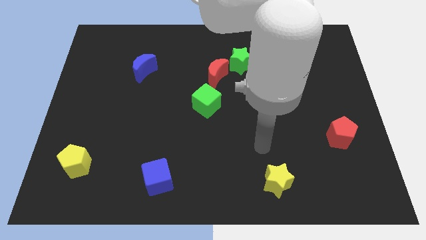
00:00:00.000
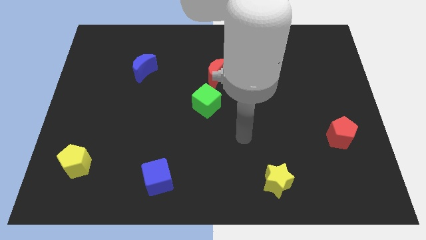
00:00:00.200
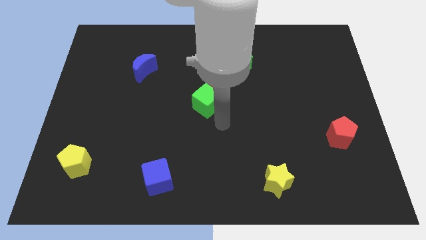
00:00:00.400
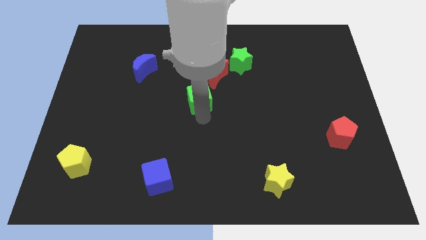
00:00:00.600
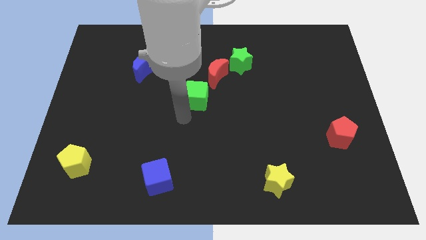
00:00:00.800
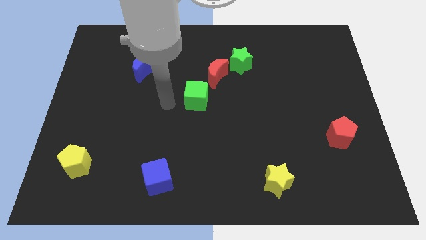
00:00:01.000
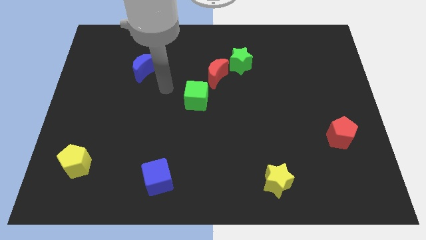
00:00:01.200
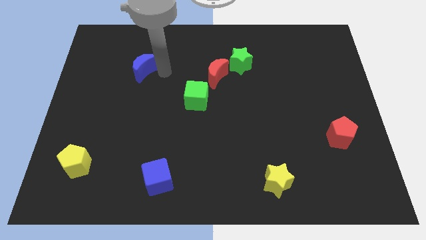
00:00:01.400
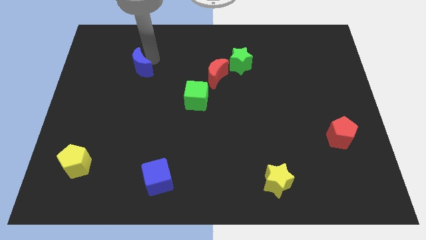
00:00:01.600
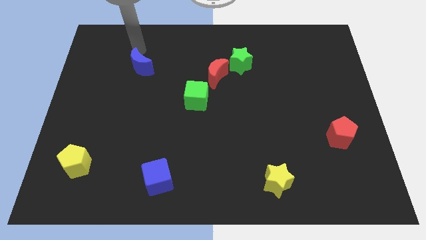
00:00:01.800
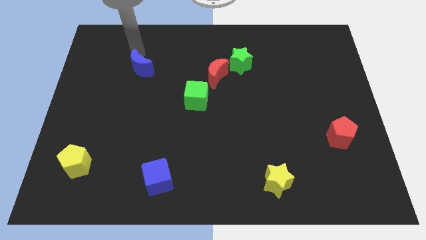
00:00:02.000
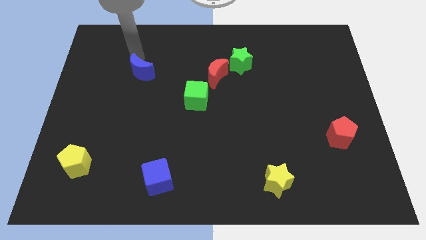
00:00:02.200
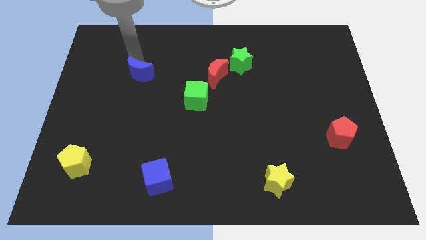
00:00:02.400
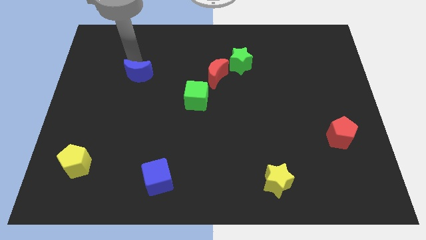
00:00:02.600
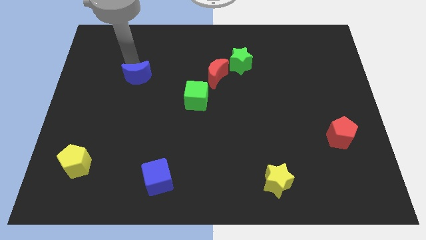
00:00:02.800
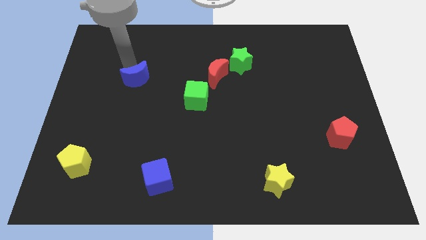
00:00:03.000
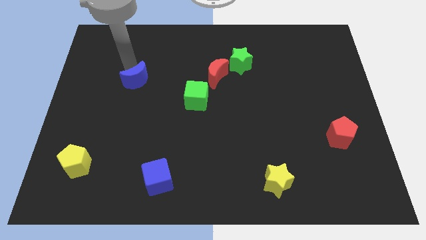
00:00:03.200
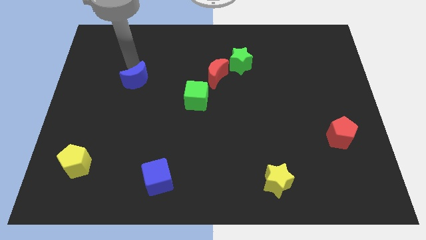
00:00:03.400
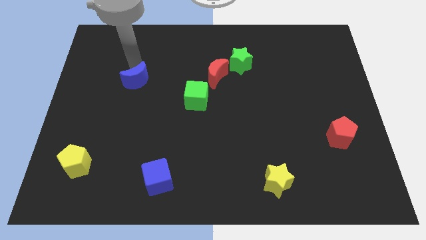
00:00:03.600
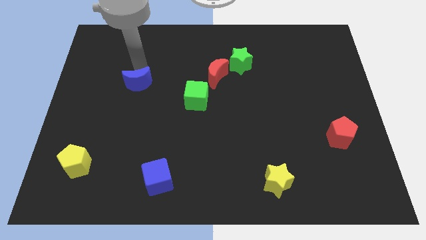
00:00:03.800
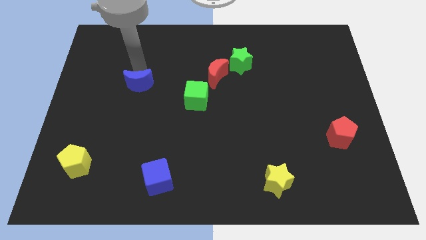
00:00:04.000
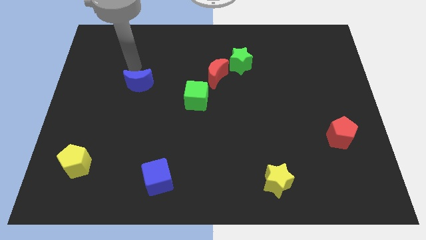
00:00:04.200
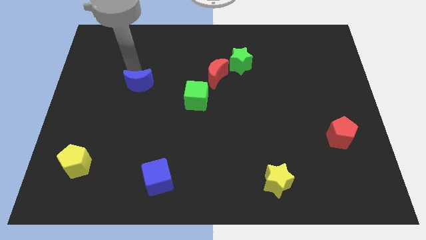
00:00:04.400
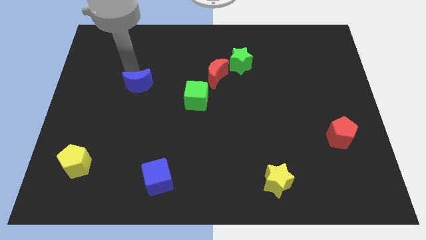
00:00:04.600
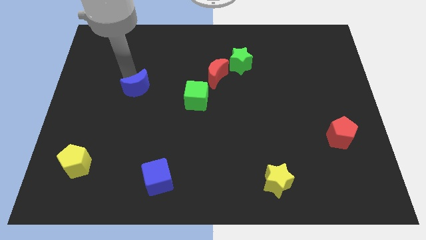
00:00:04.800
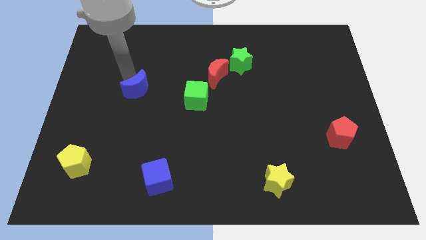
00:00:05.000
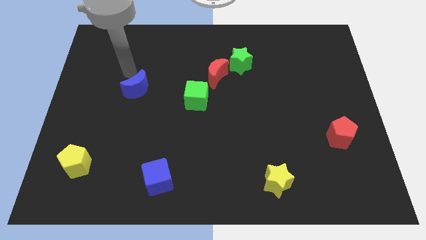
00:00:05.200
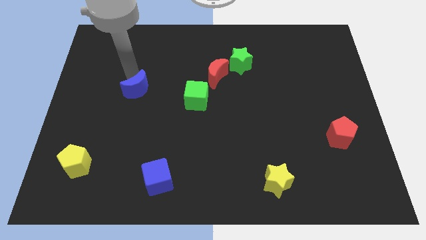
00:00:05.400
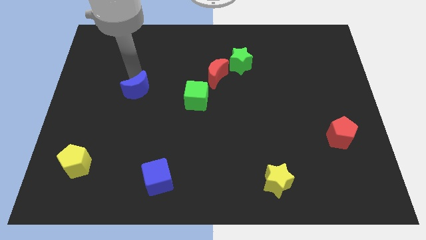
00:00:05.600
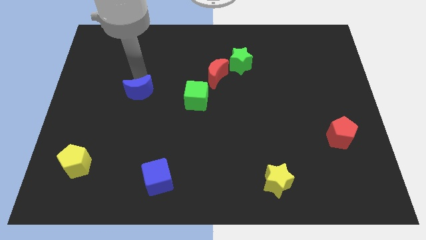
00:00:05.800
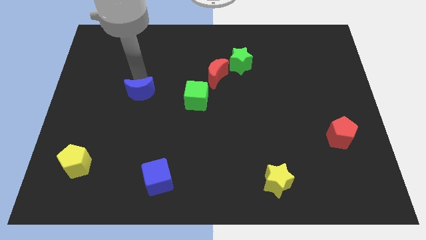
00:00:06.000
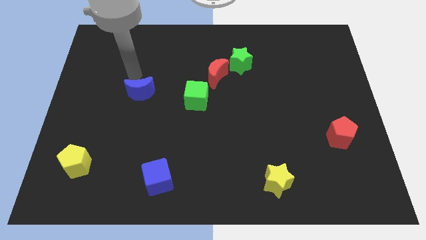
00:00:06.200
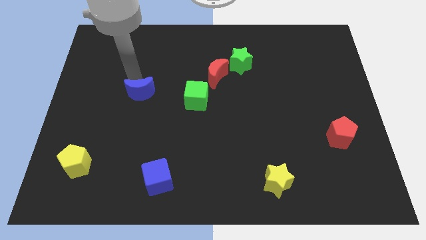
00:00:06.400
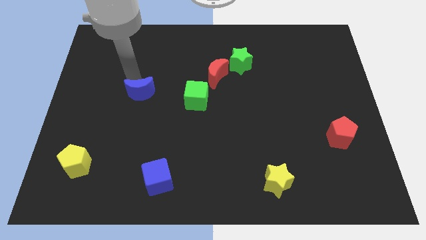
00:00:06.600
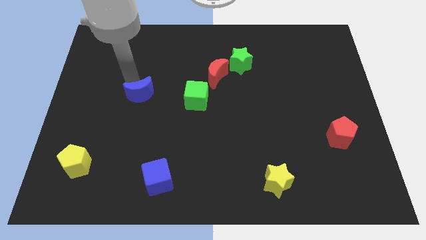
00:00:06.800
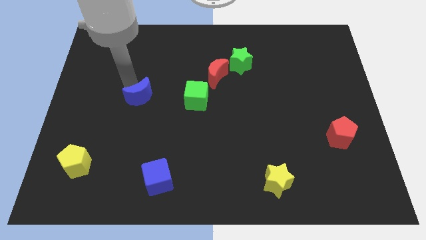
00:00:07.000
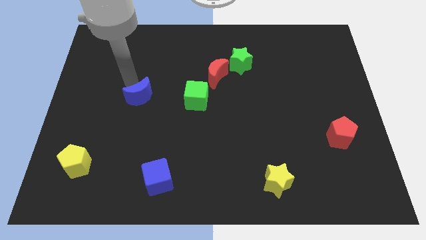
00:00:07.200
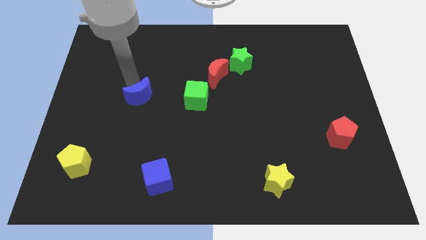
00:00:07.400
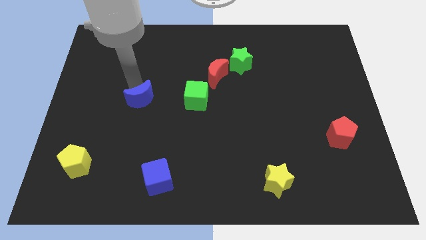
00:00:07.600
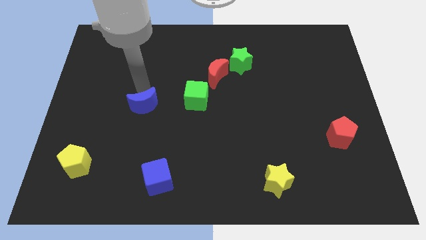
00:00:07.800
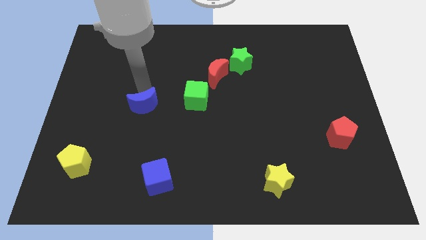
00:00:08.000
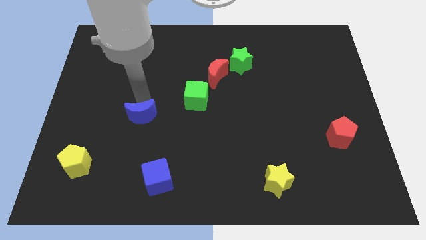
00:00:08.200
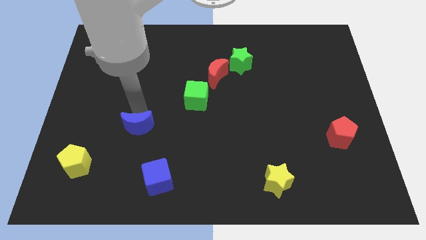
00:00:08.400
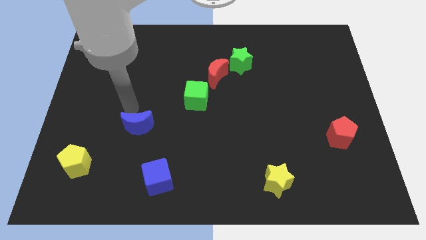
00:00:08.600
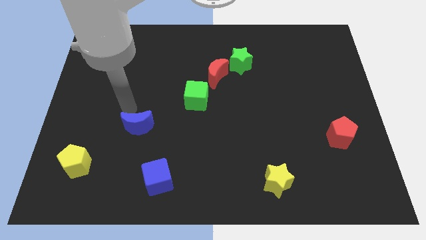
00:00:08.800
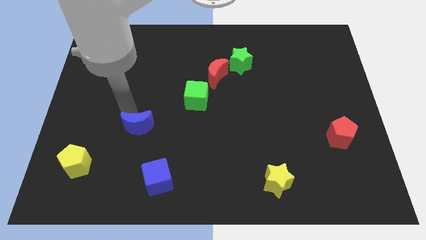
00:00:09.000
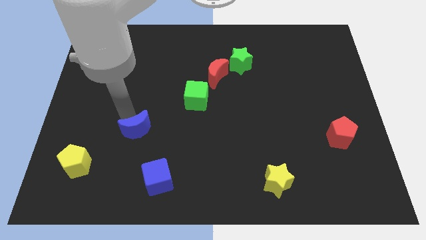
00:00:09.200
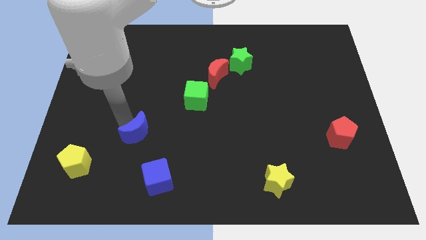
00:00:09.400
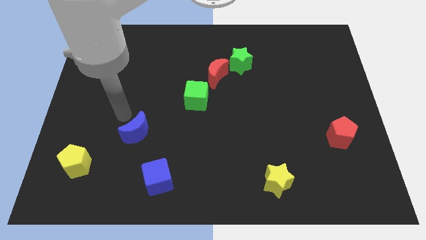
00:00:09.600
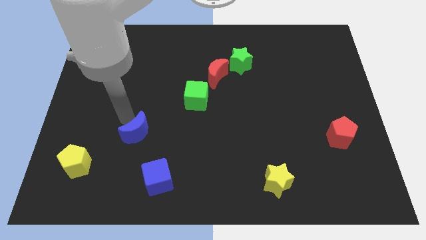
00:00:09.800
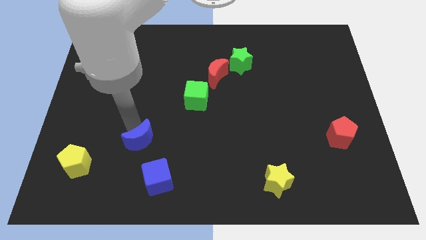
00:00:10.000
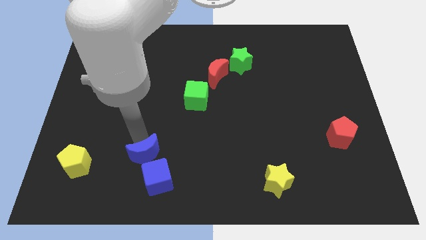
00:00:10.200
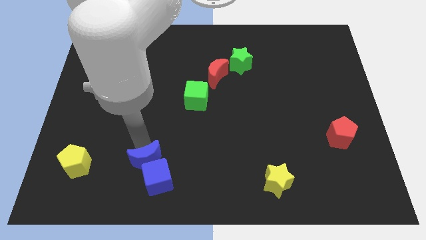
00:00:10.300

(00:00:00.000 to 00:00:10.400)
move the blue moon close to the blue cube

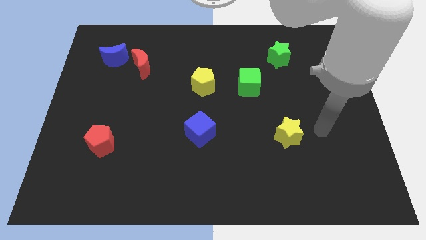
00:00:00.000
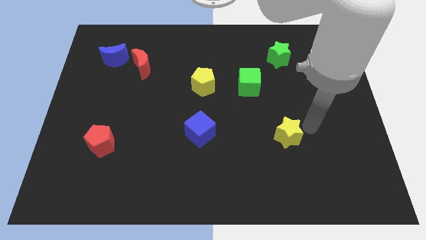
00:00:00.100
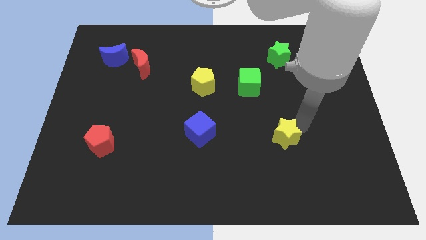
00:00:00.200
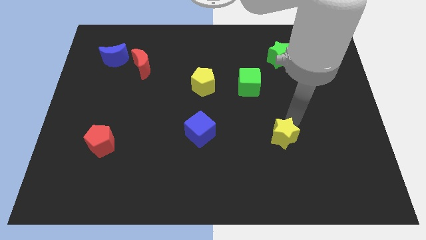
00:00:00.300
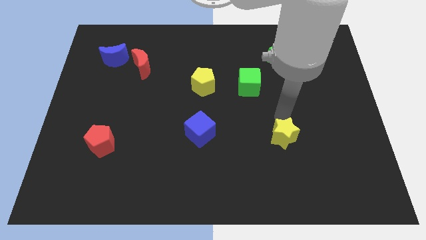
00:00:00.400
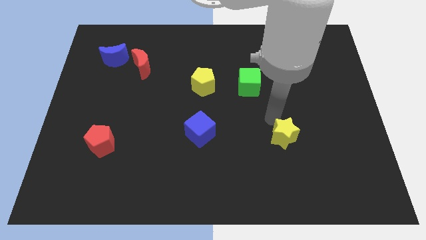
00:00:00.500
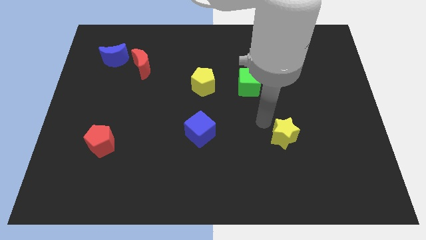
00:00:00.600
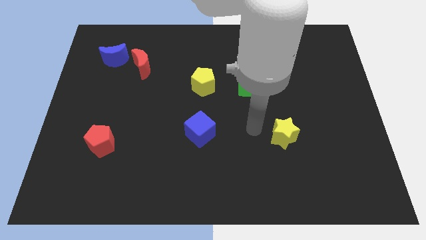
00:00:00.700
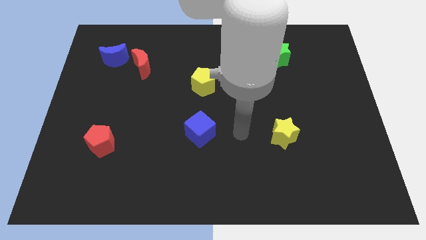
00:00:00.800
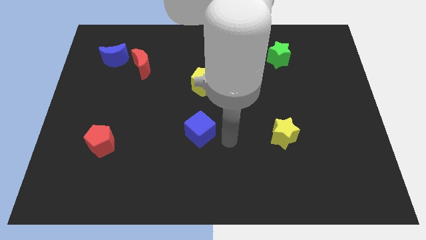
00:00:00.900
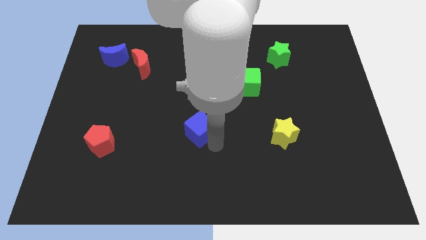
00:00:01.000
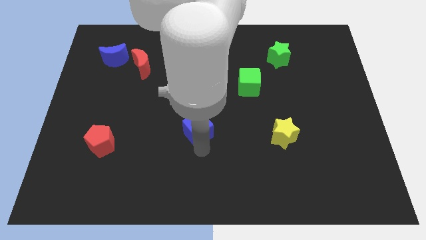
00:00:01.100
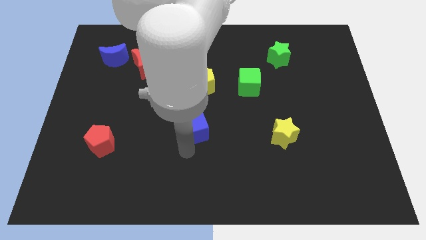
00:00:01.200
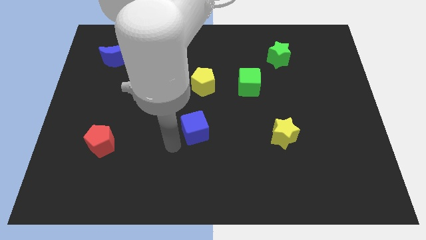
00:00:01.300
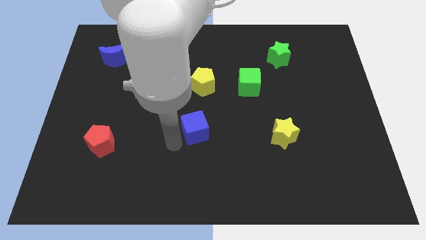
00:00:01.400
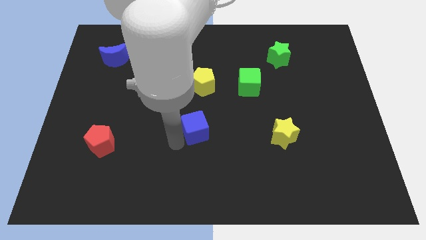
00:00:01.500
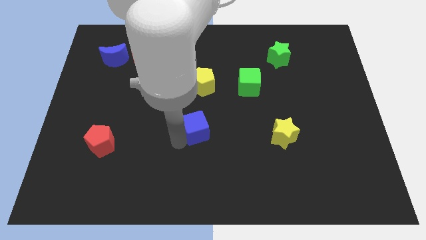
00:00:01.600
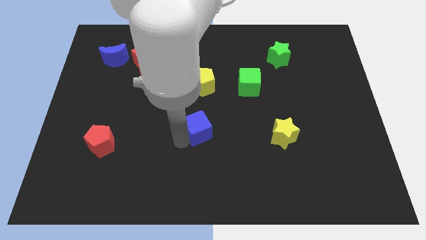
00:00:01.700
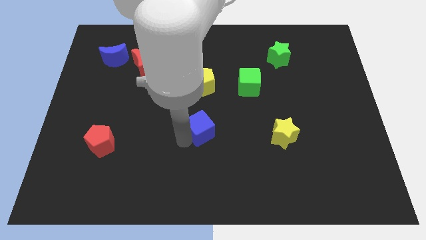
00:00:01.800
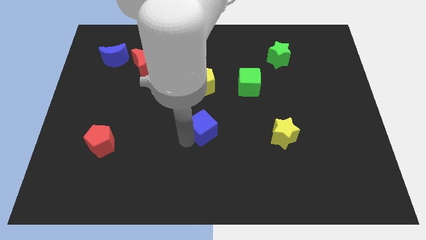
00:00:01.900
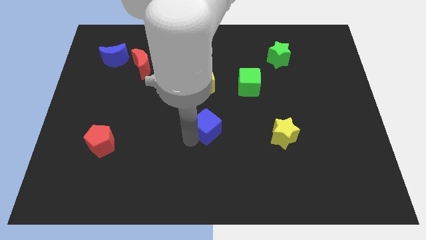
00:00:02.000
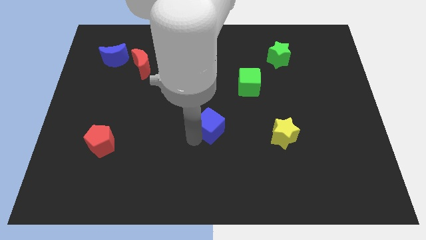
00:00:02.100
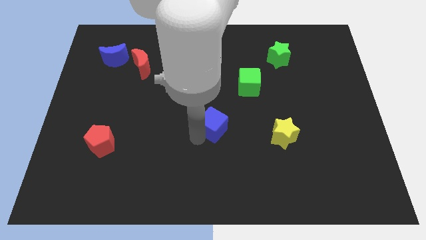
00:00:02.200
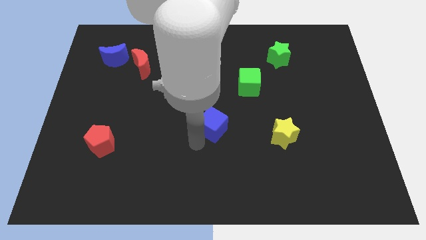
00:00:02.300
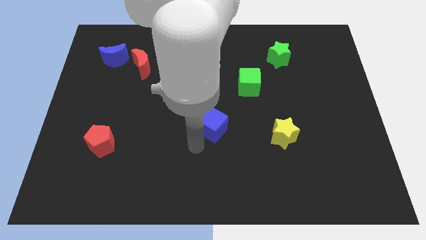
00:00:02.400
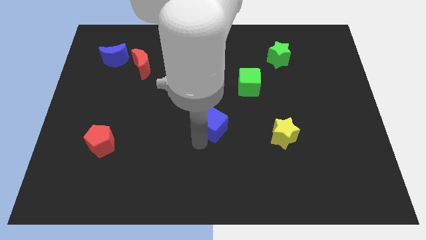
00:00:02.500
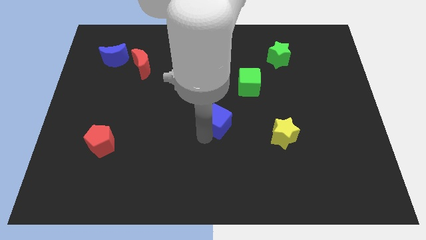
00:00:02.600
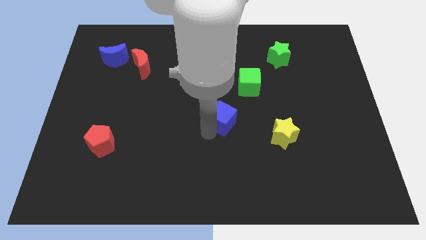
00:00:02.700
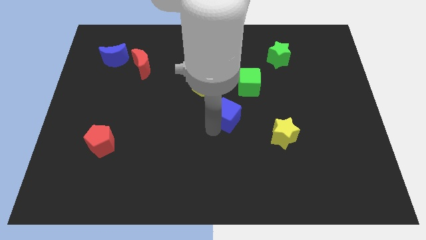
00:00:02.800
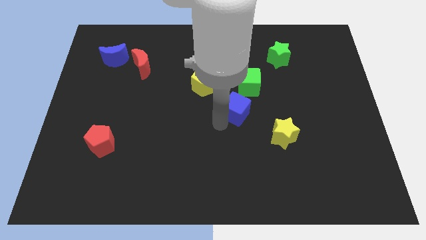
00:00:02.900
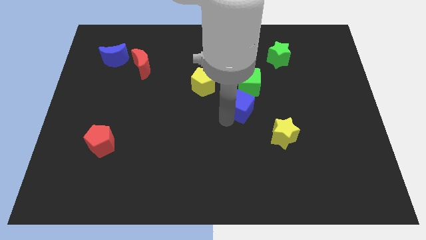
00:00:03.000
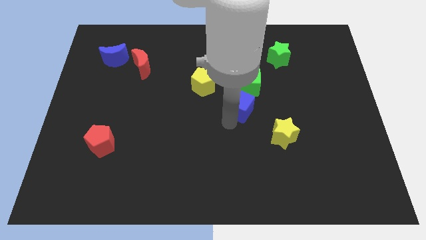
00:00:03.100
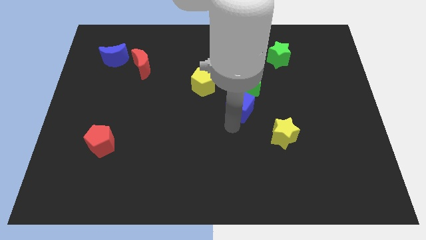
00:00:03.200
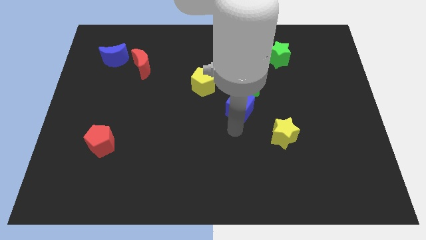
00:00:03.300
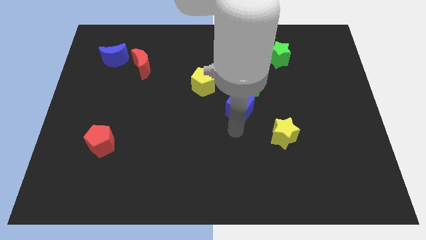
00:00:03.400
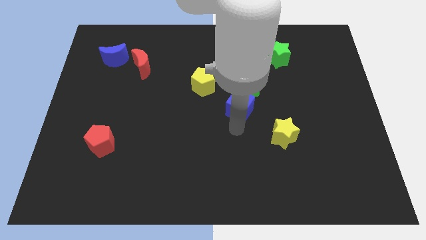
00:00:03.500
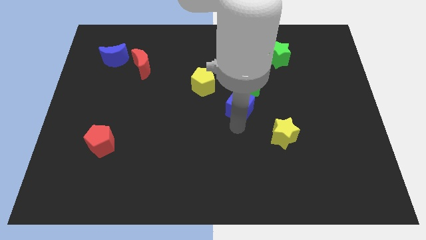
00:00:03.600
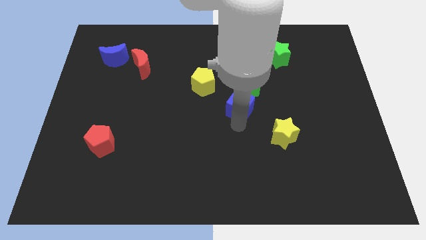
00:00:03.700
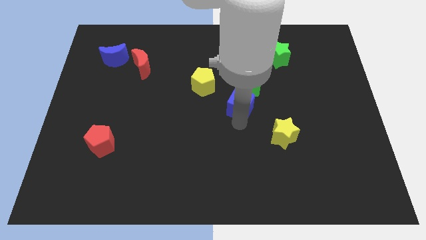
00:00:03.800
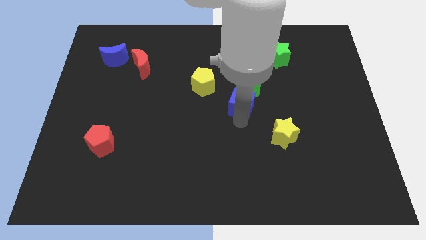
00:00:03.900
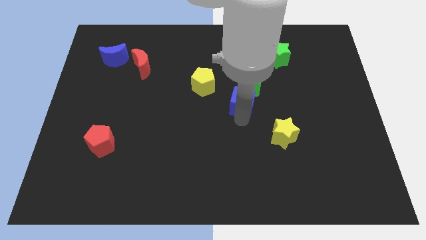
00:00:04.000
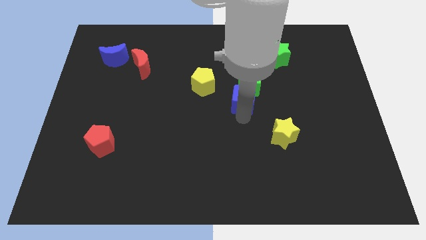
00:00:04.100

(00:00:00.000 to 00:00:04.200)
move the blue cube close to the green cube
